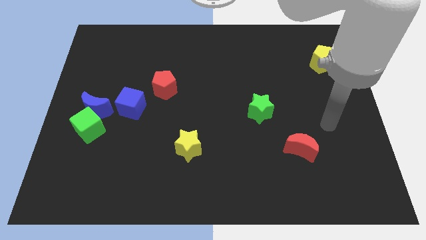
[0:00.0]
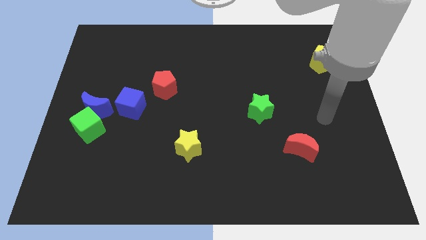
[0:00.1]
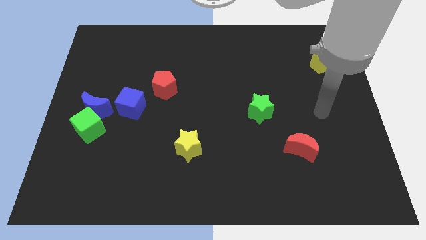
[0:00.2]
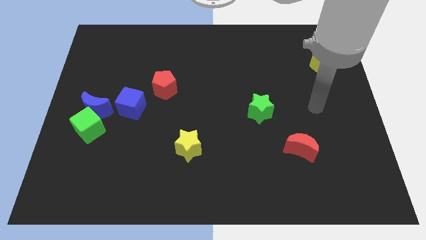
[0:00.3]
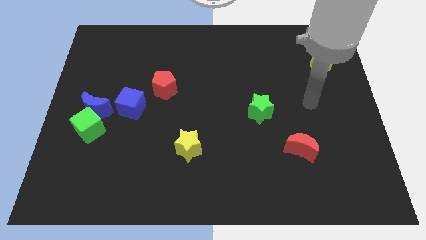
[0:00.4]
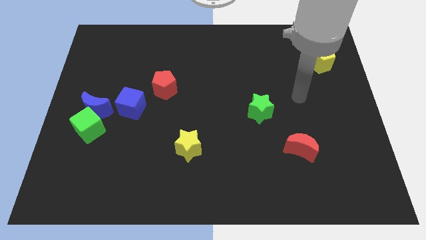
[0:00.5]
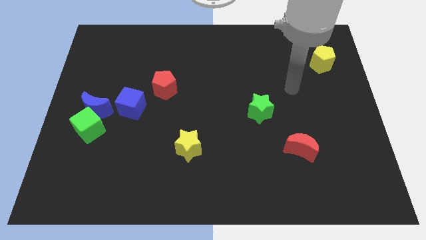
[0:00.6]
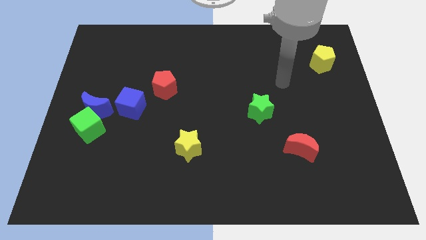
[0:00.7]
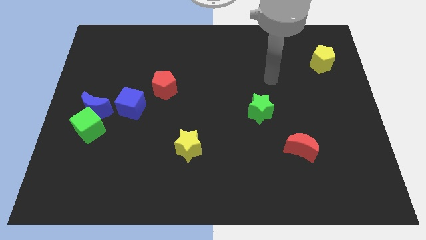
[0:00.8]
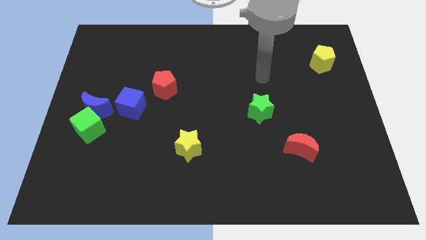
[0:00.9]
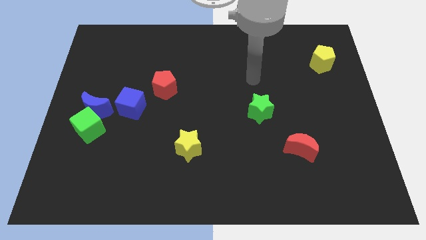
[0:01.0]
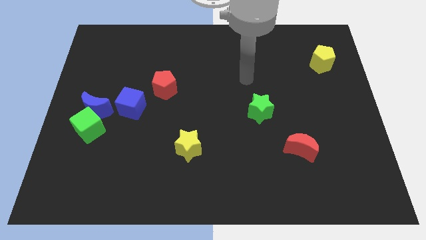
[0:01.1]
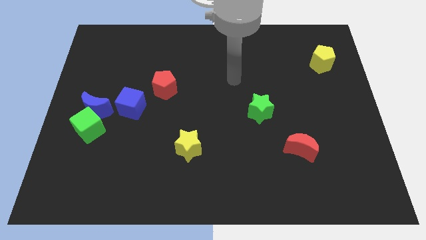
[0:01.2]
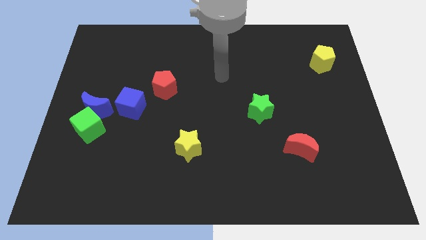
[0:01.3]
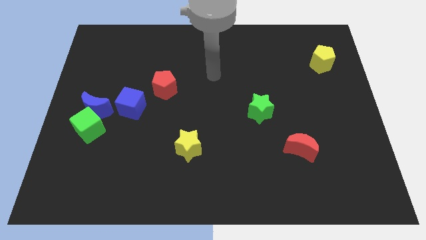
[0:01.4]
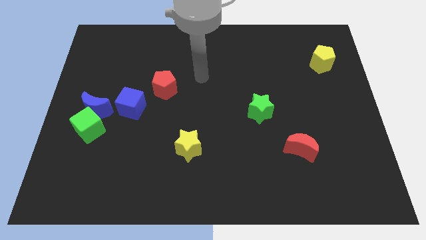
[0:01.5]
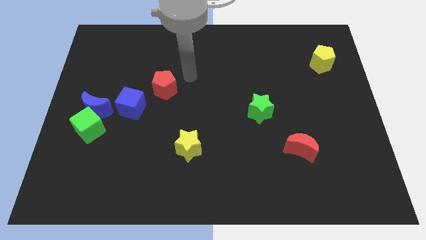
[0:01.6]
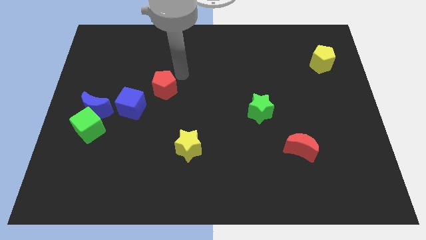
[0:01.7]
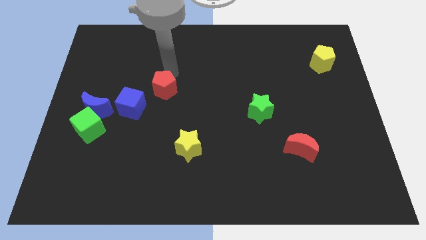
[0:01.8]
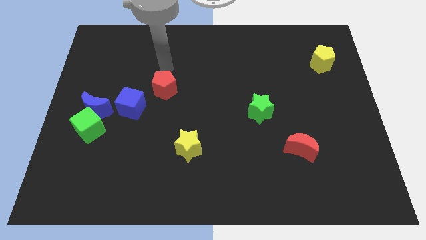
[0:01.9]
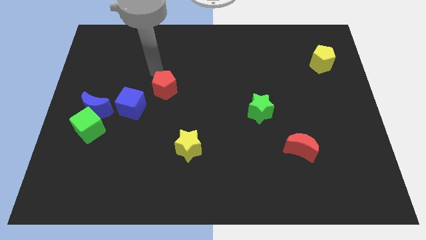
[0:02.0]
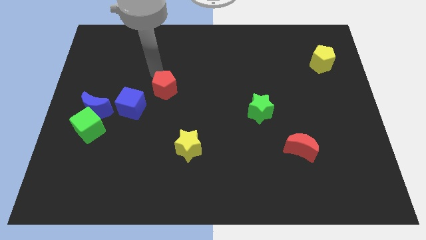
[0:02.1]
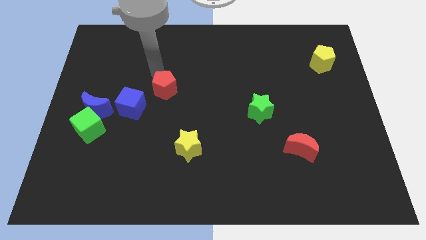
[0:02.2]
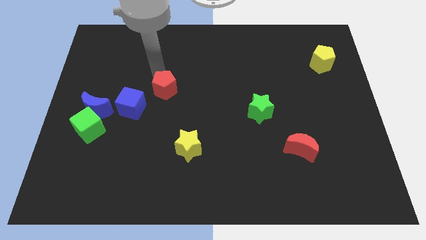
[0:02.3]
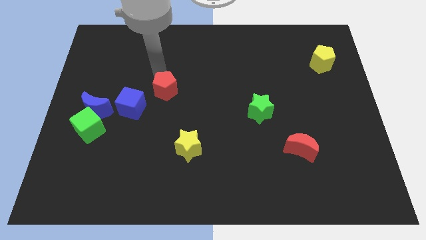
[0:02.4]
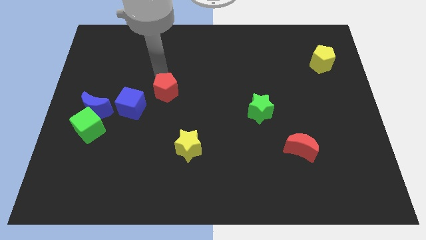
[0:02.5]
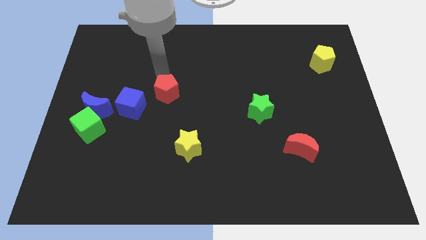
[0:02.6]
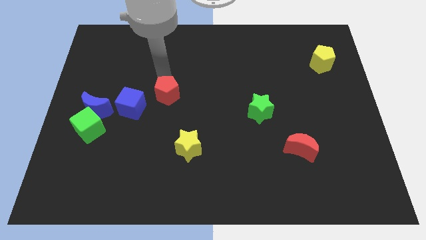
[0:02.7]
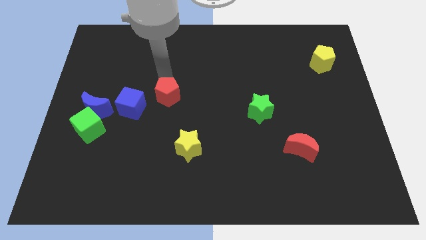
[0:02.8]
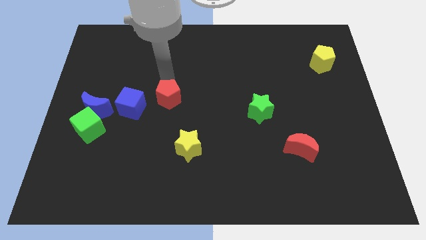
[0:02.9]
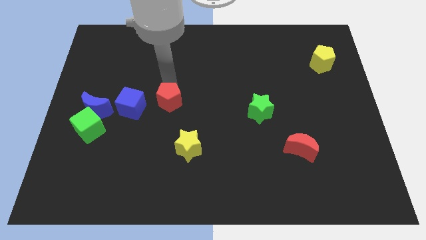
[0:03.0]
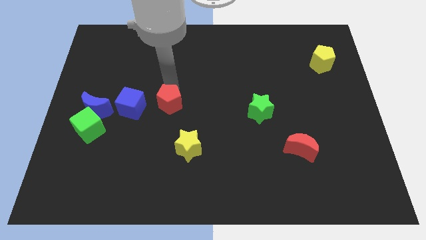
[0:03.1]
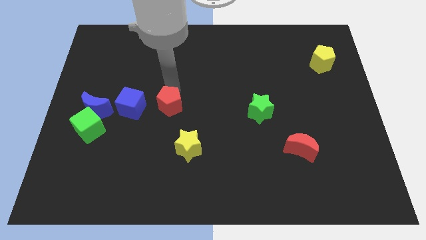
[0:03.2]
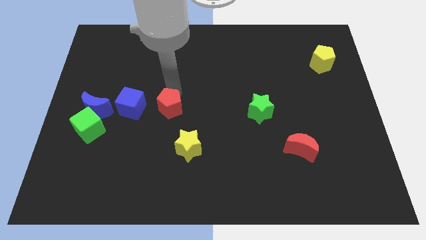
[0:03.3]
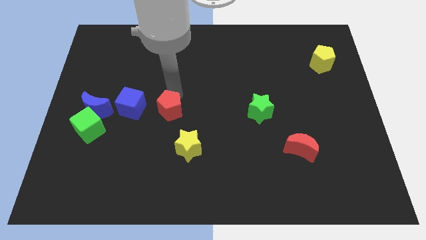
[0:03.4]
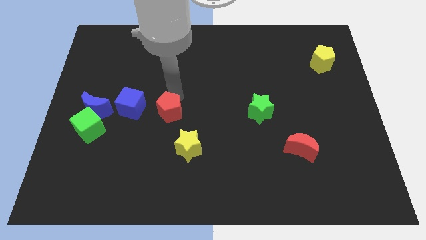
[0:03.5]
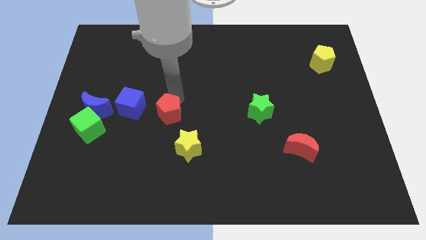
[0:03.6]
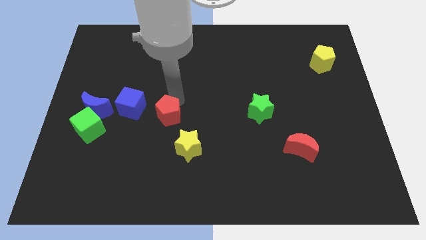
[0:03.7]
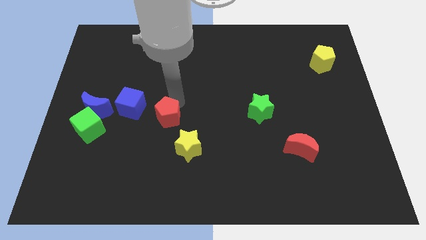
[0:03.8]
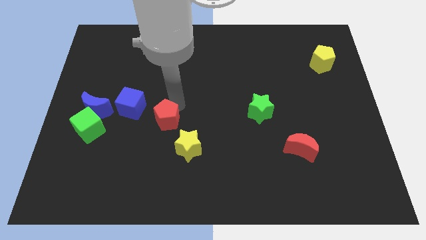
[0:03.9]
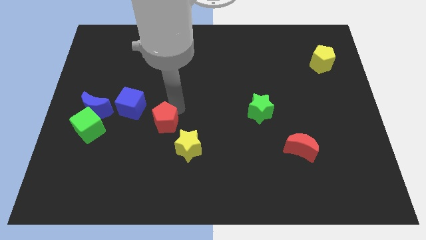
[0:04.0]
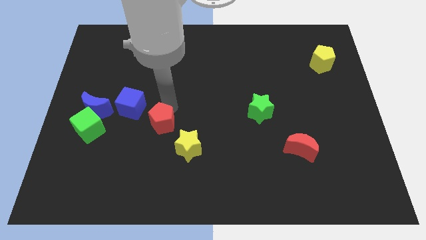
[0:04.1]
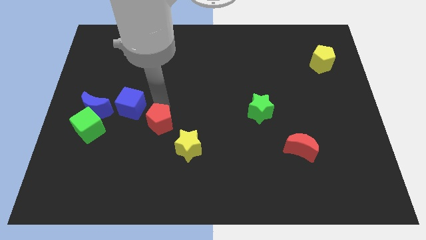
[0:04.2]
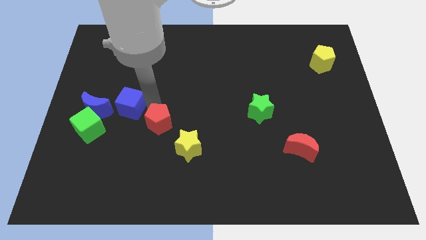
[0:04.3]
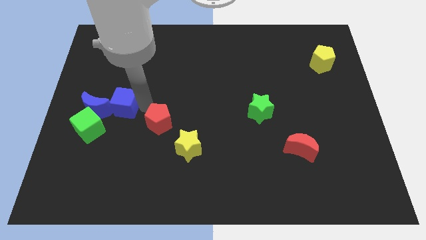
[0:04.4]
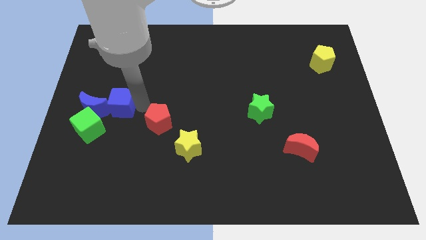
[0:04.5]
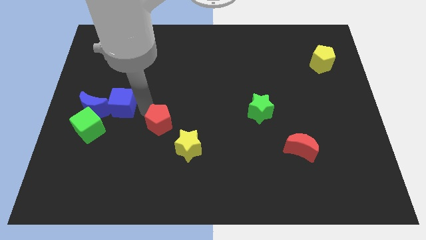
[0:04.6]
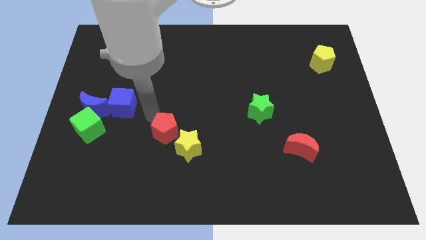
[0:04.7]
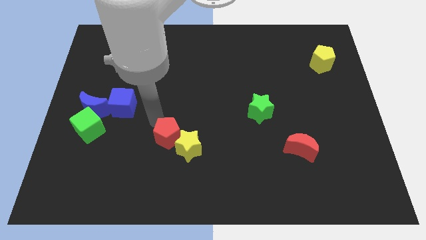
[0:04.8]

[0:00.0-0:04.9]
slide the red pentagon next to the yellow star

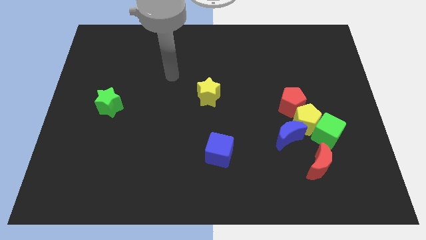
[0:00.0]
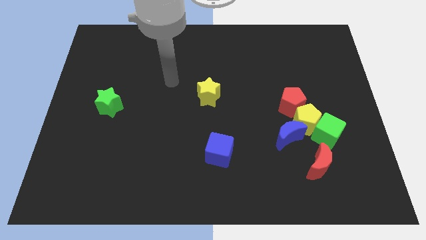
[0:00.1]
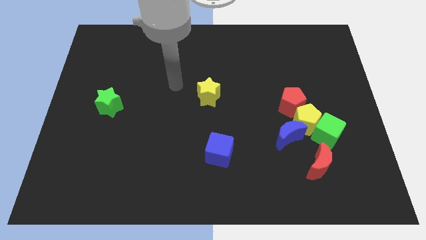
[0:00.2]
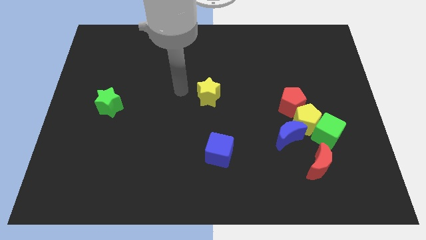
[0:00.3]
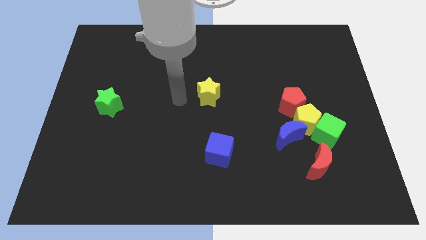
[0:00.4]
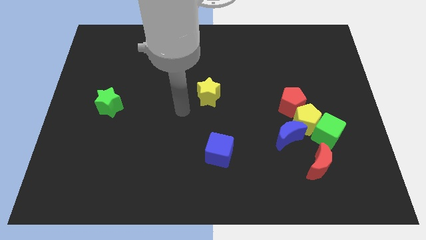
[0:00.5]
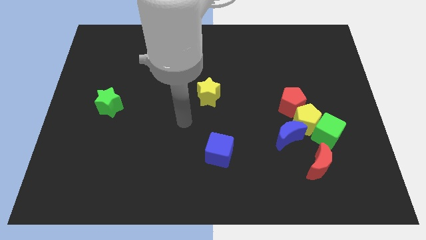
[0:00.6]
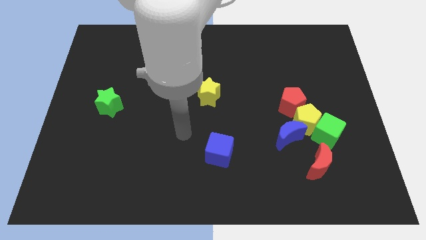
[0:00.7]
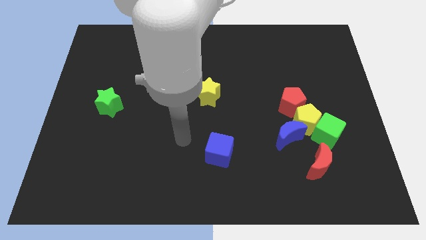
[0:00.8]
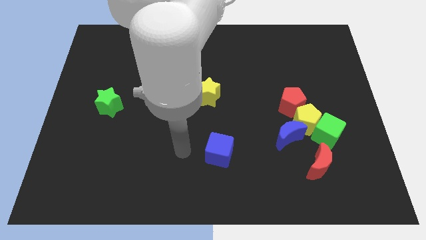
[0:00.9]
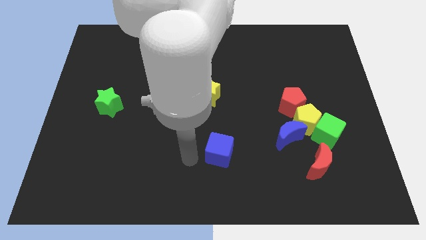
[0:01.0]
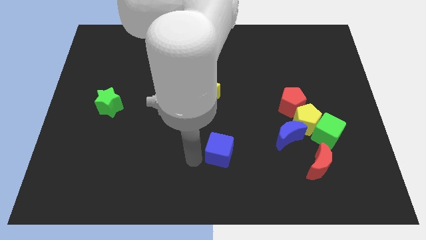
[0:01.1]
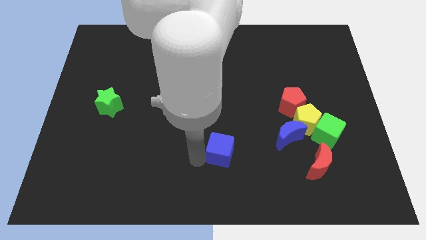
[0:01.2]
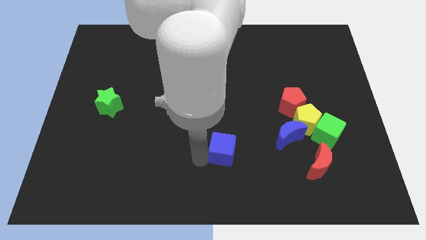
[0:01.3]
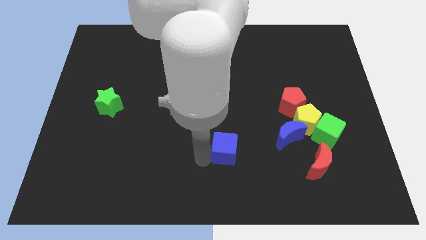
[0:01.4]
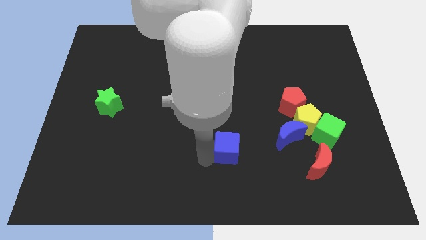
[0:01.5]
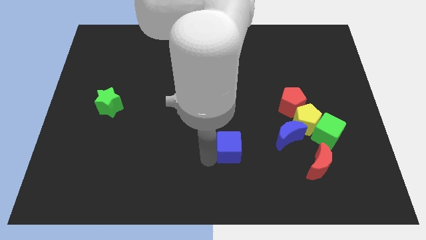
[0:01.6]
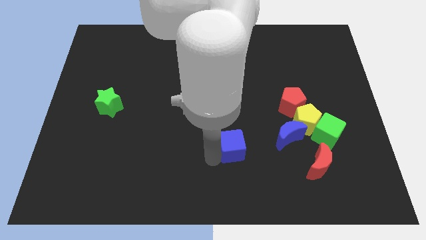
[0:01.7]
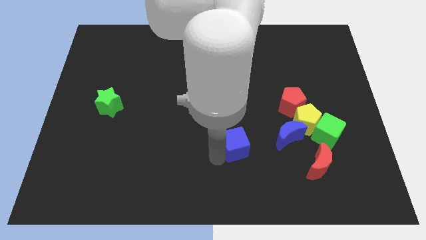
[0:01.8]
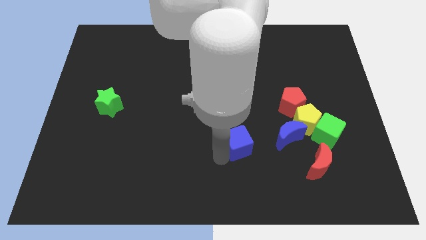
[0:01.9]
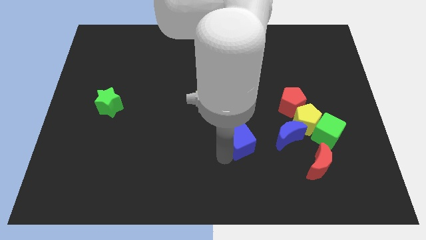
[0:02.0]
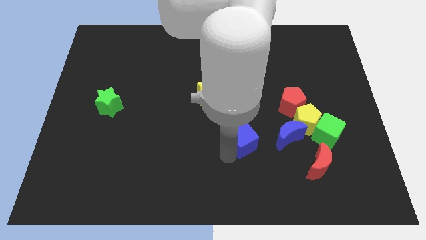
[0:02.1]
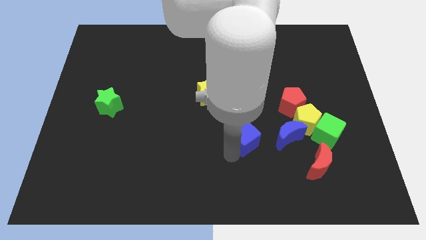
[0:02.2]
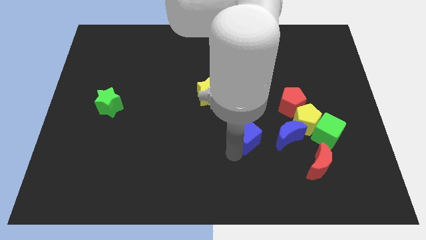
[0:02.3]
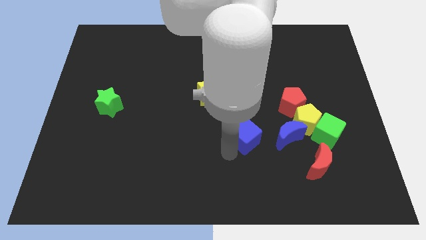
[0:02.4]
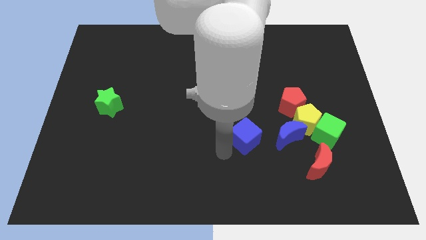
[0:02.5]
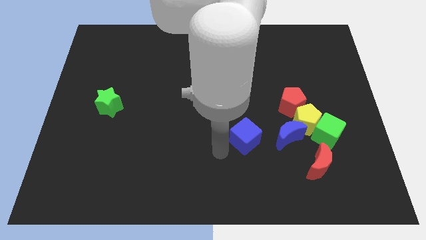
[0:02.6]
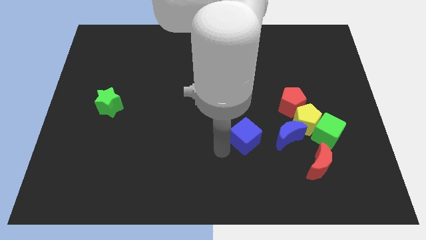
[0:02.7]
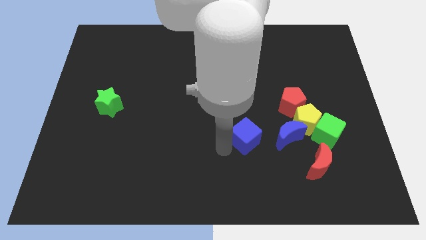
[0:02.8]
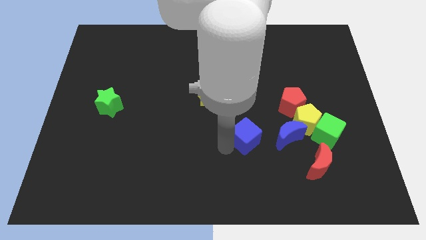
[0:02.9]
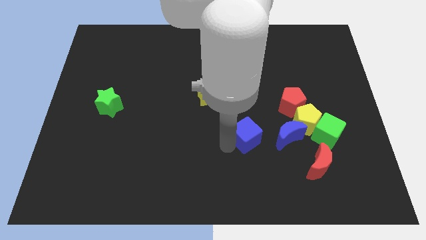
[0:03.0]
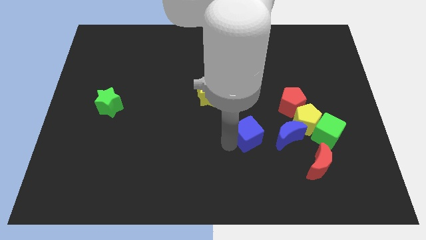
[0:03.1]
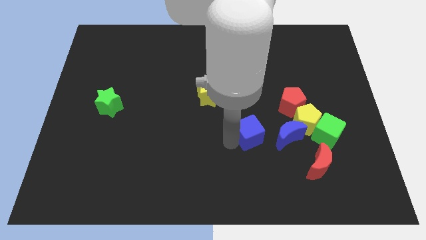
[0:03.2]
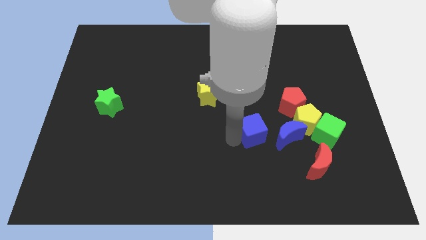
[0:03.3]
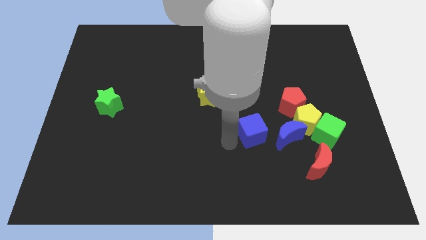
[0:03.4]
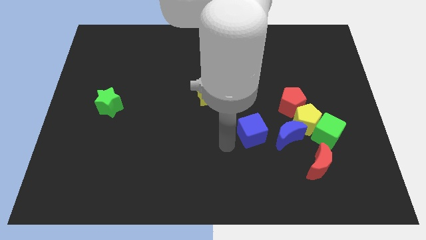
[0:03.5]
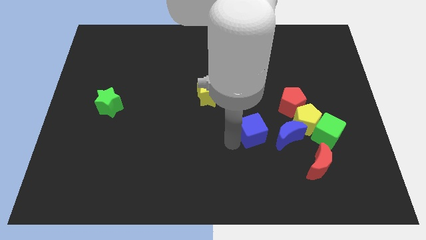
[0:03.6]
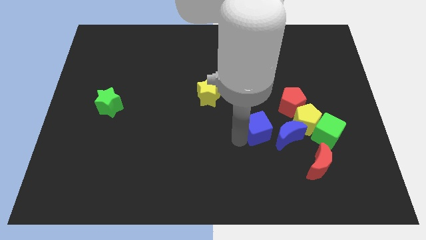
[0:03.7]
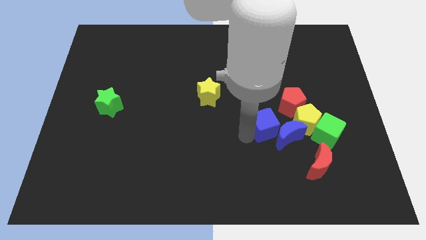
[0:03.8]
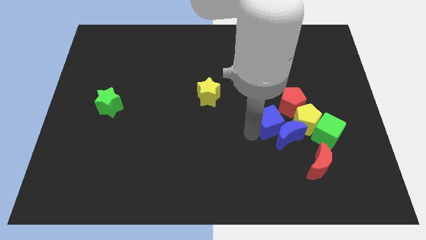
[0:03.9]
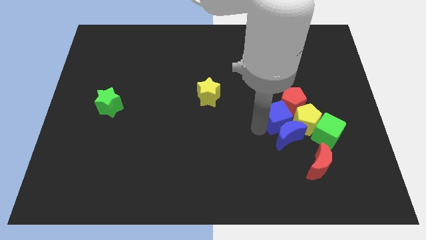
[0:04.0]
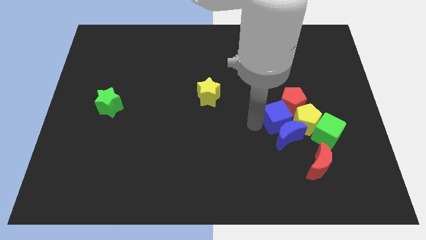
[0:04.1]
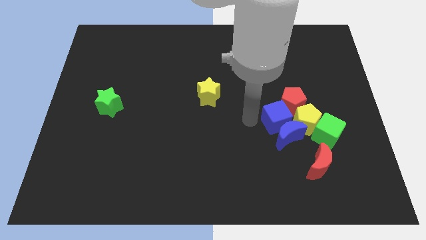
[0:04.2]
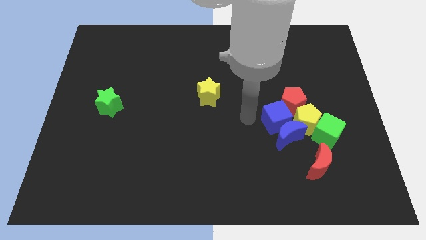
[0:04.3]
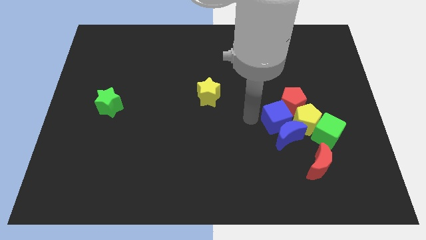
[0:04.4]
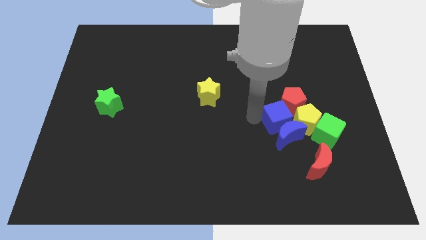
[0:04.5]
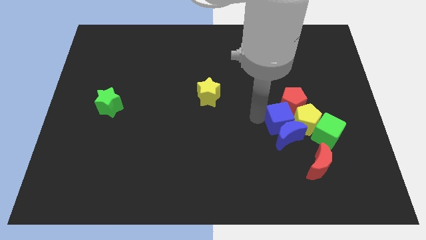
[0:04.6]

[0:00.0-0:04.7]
move the blue cube to the yellow pentagon
